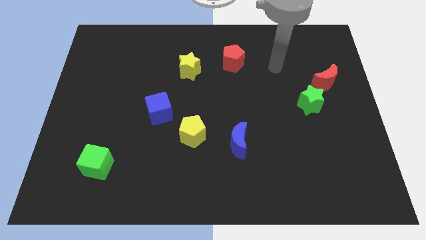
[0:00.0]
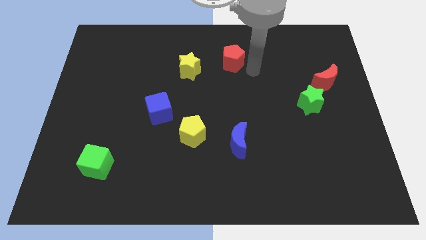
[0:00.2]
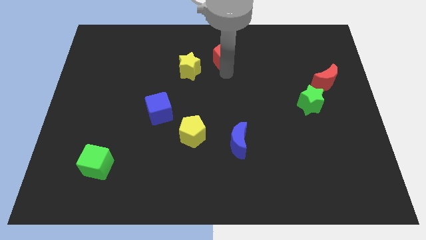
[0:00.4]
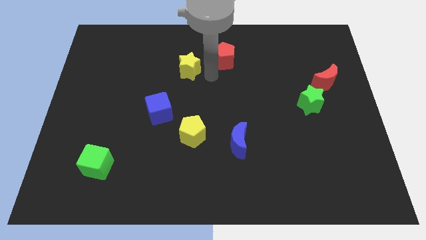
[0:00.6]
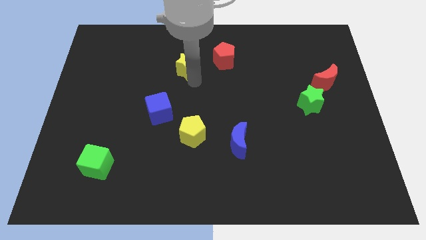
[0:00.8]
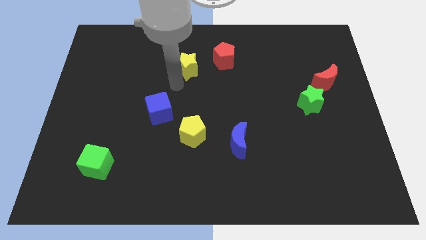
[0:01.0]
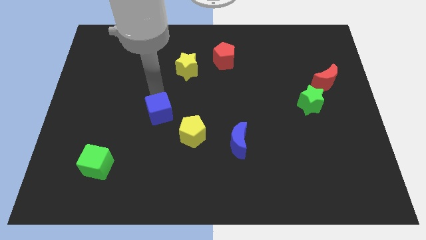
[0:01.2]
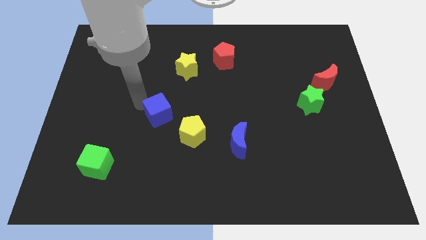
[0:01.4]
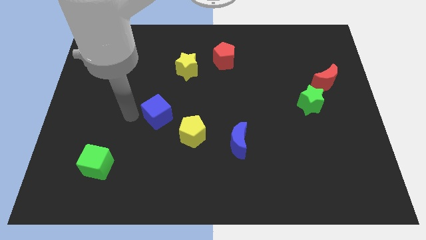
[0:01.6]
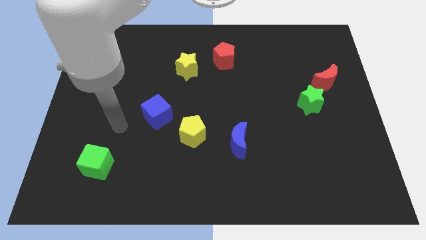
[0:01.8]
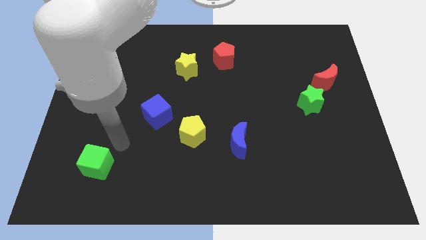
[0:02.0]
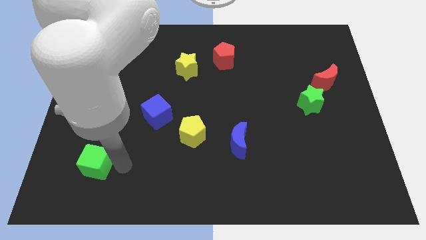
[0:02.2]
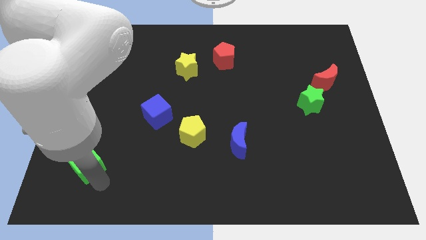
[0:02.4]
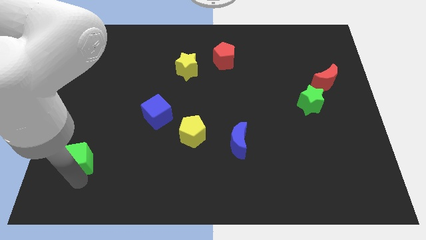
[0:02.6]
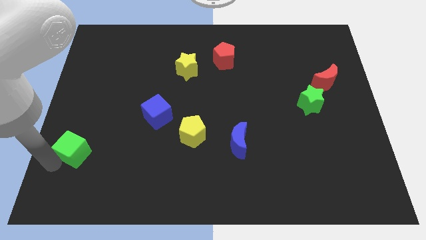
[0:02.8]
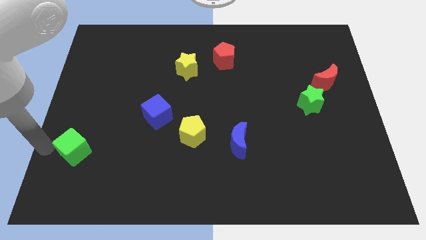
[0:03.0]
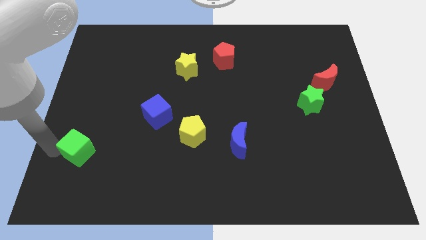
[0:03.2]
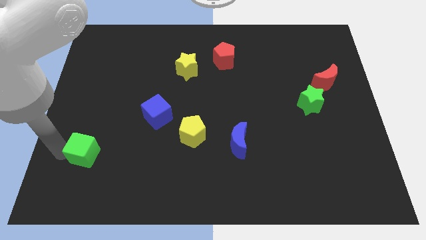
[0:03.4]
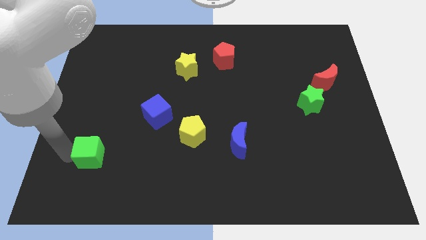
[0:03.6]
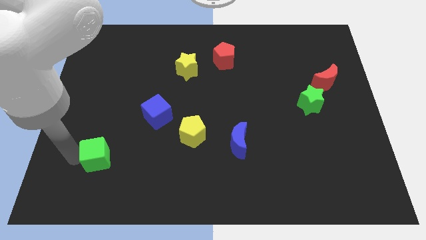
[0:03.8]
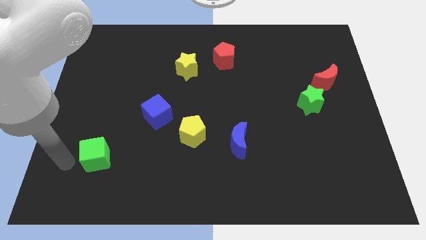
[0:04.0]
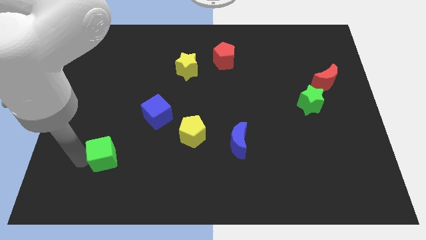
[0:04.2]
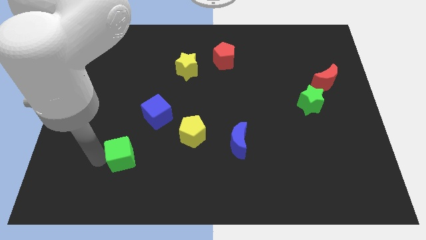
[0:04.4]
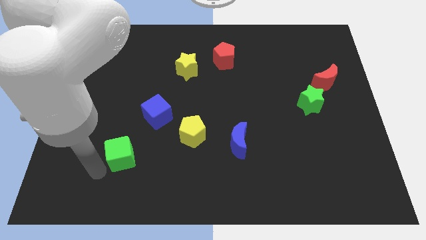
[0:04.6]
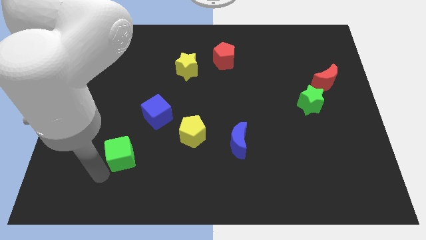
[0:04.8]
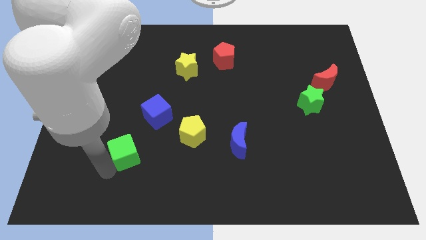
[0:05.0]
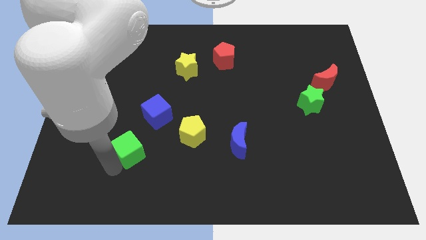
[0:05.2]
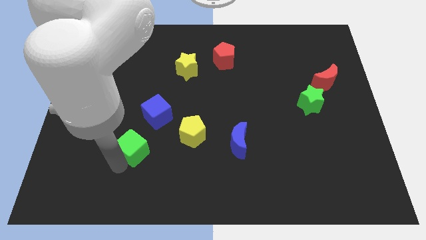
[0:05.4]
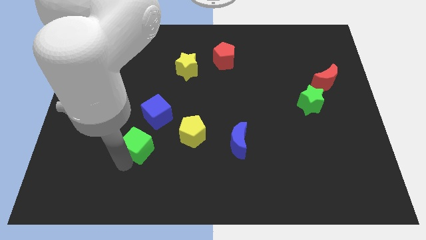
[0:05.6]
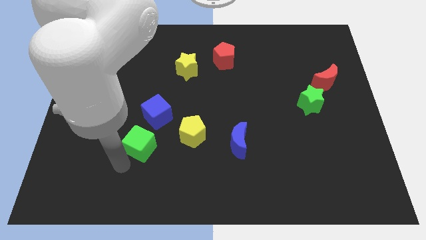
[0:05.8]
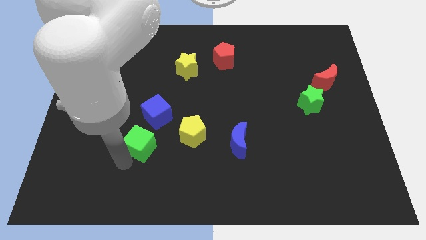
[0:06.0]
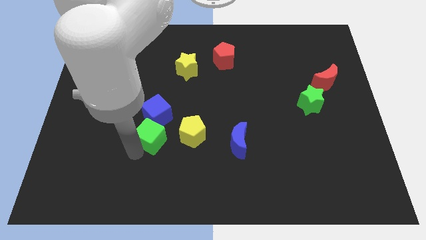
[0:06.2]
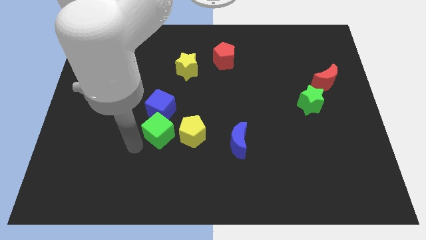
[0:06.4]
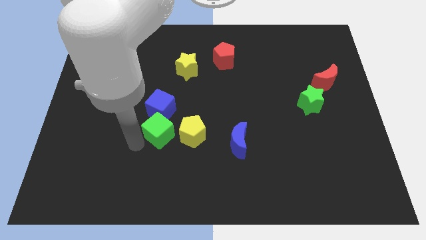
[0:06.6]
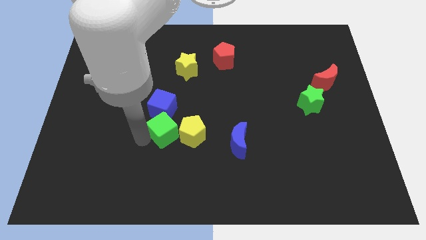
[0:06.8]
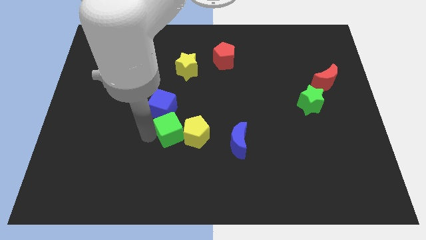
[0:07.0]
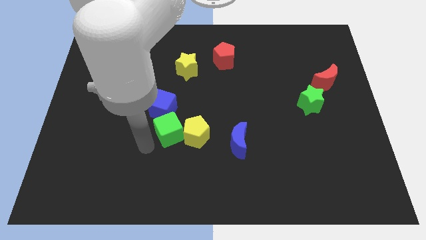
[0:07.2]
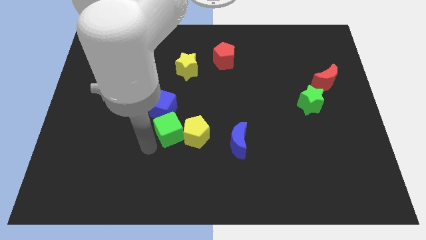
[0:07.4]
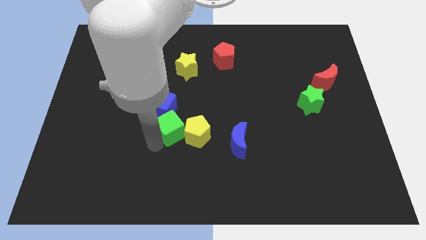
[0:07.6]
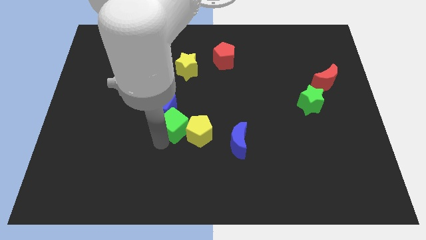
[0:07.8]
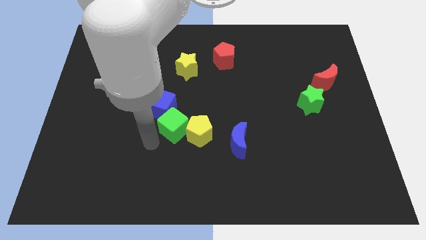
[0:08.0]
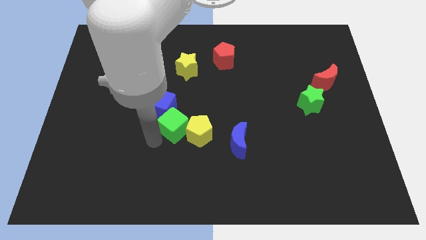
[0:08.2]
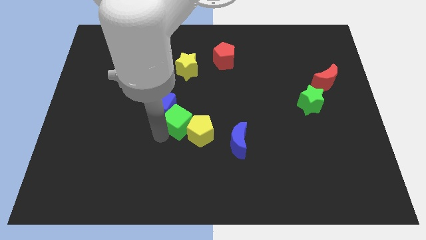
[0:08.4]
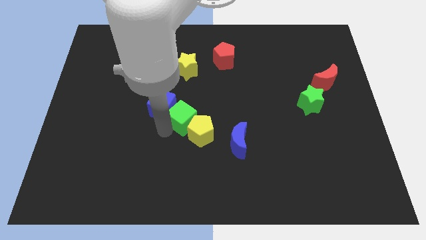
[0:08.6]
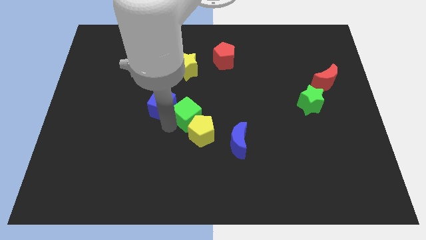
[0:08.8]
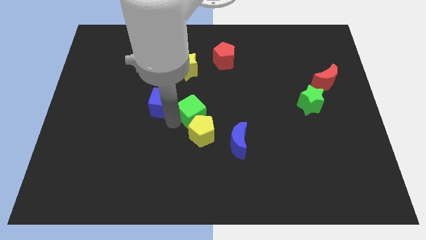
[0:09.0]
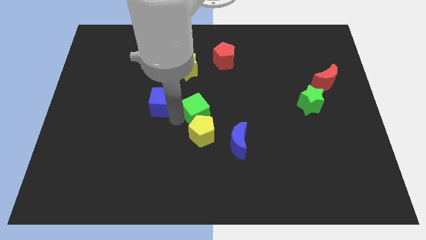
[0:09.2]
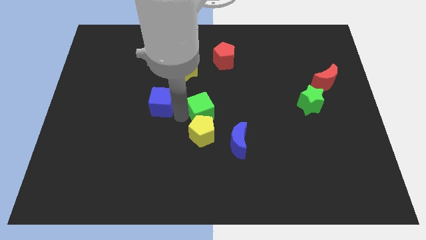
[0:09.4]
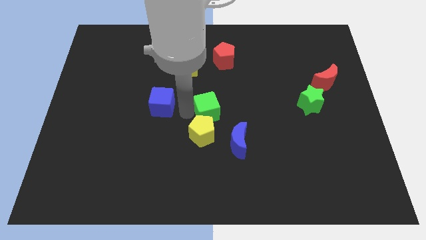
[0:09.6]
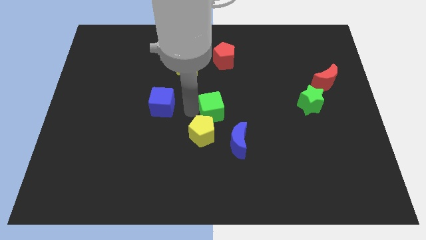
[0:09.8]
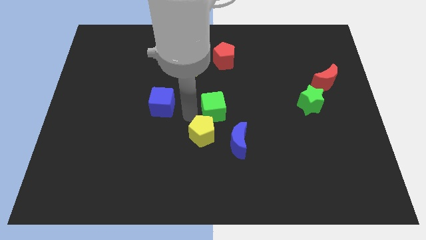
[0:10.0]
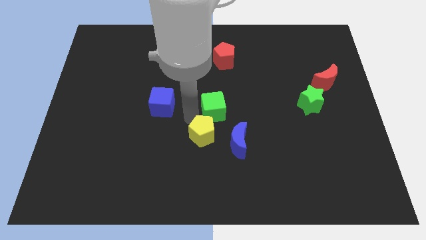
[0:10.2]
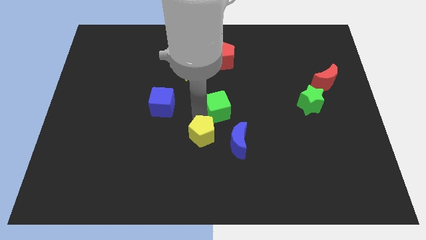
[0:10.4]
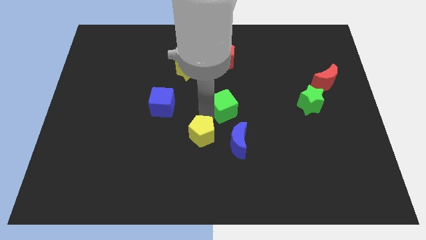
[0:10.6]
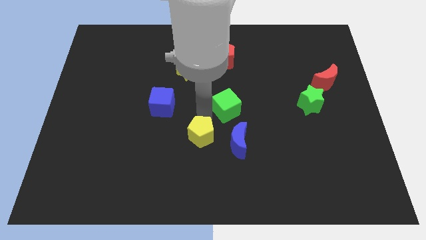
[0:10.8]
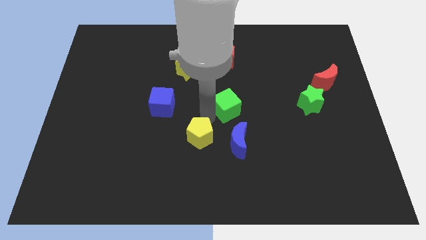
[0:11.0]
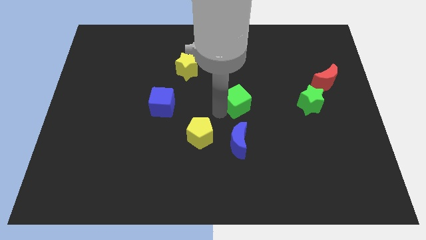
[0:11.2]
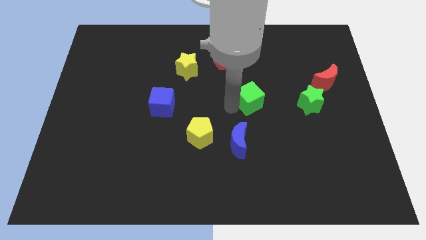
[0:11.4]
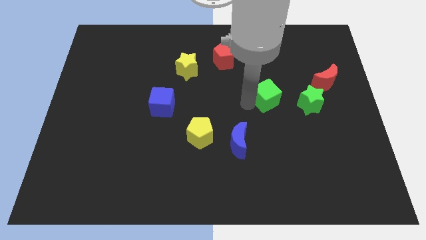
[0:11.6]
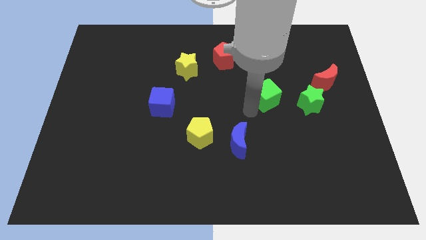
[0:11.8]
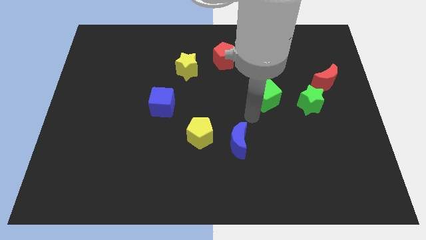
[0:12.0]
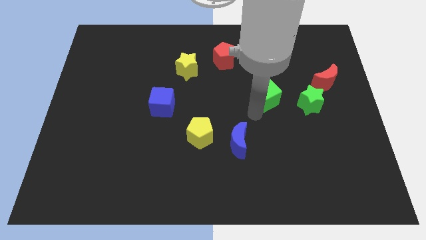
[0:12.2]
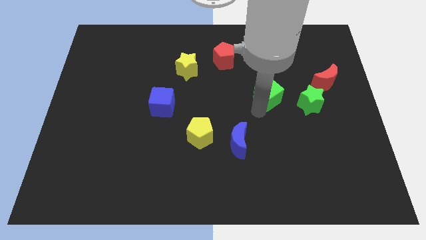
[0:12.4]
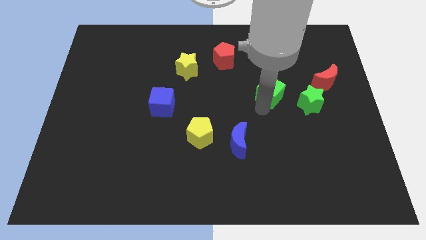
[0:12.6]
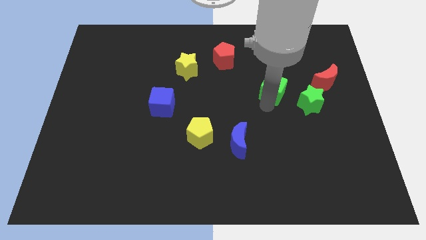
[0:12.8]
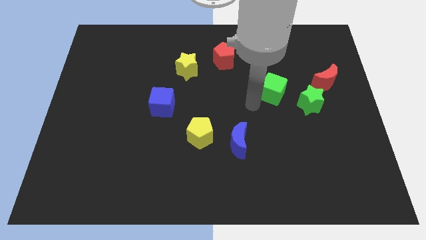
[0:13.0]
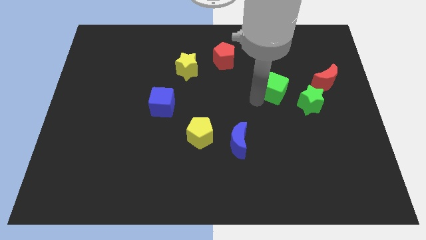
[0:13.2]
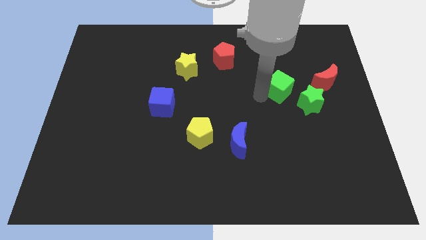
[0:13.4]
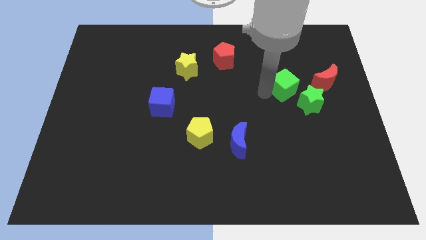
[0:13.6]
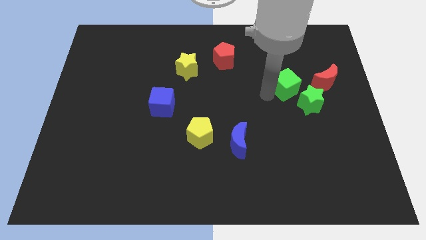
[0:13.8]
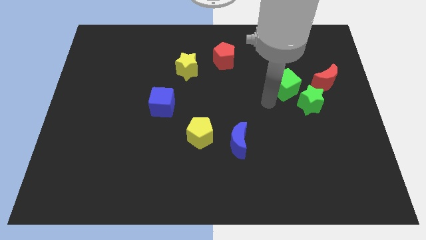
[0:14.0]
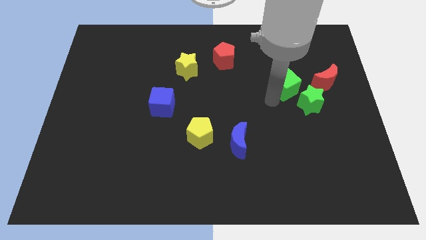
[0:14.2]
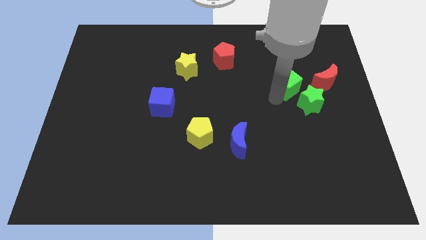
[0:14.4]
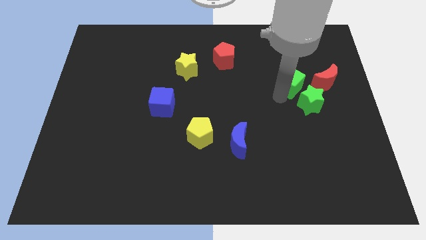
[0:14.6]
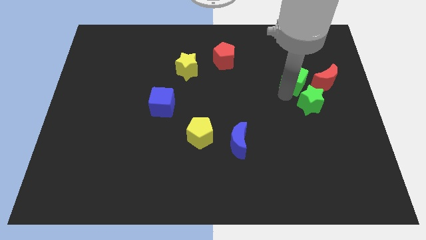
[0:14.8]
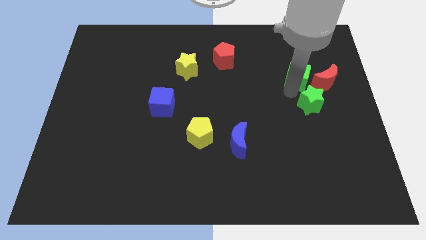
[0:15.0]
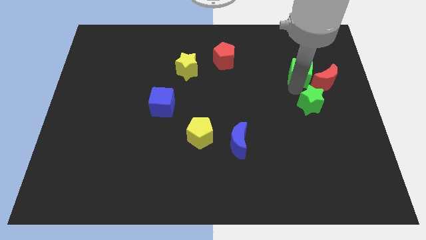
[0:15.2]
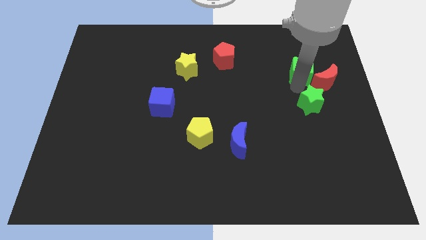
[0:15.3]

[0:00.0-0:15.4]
push the green cube close to the red moon
